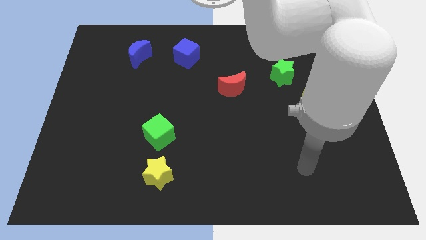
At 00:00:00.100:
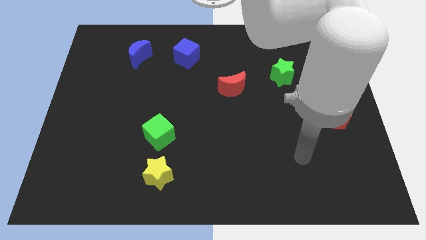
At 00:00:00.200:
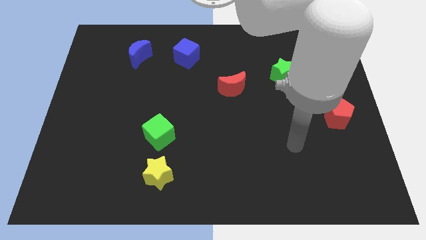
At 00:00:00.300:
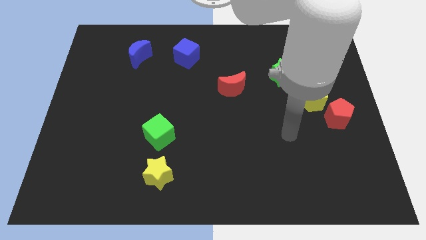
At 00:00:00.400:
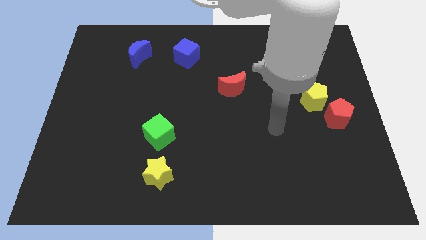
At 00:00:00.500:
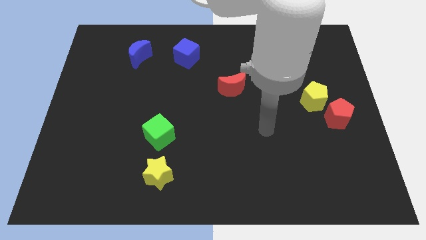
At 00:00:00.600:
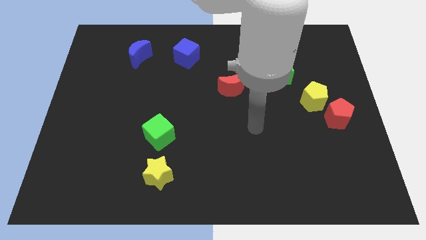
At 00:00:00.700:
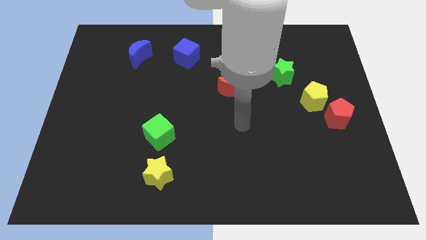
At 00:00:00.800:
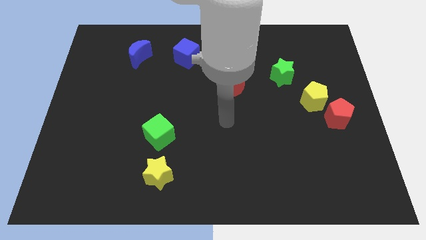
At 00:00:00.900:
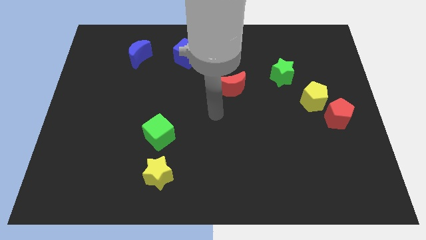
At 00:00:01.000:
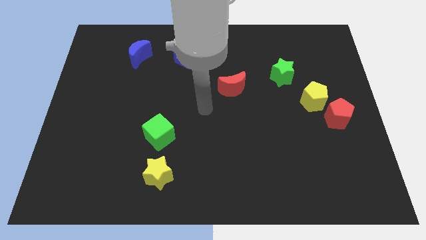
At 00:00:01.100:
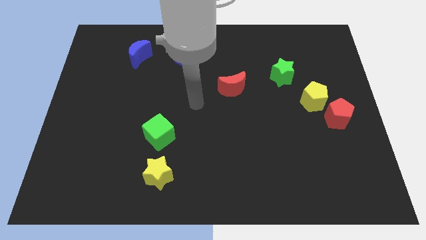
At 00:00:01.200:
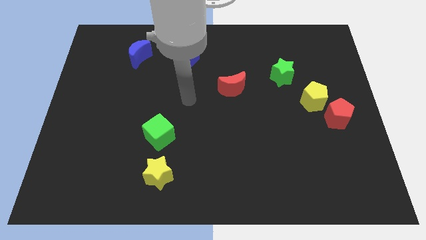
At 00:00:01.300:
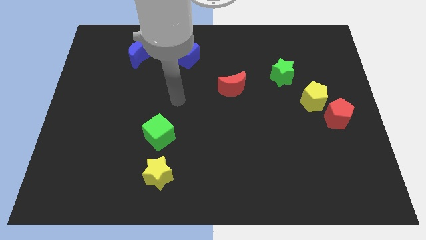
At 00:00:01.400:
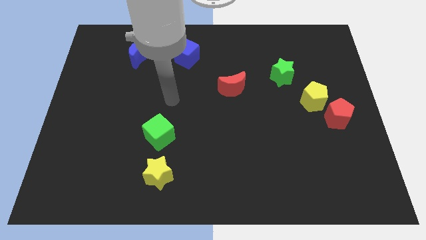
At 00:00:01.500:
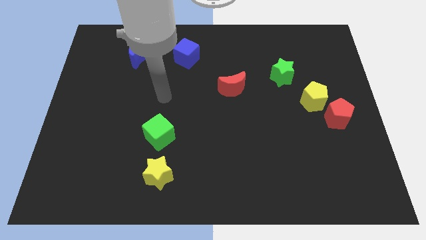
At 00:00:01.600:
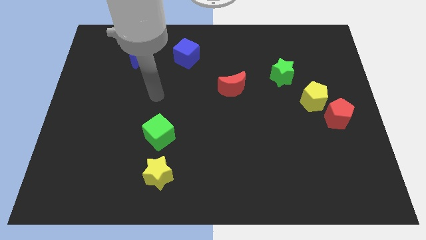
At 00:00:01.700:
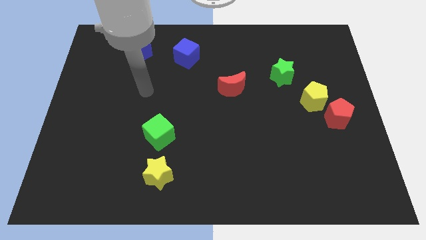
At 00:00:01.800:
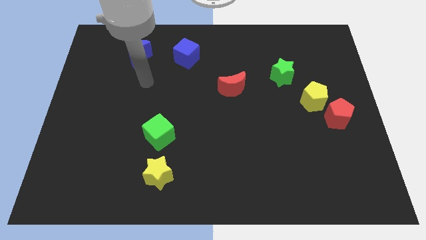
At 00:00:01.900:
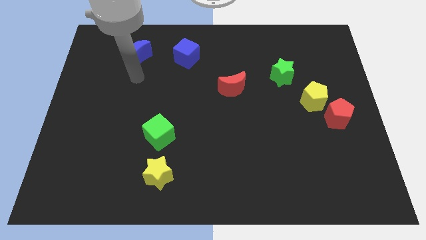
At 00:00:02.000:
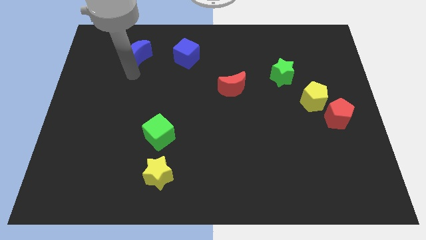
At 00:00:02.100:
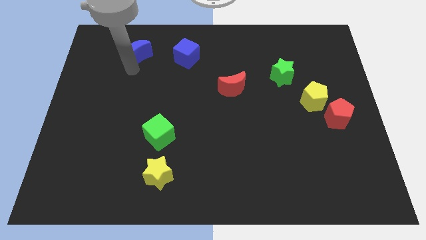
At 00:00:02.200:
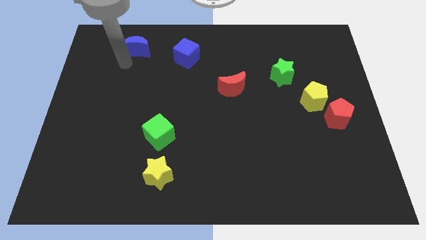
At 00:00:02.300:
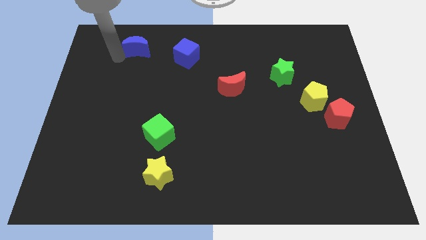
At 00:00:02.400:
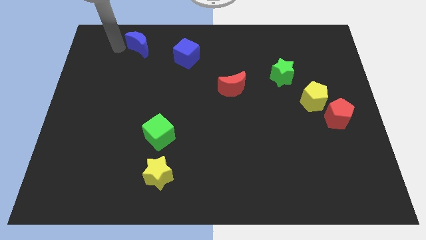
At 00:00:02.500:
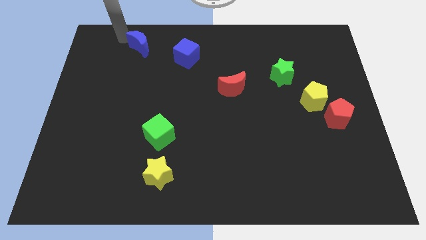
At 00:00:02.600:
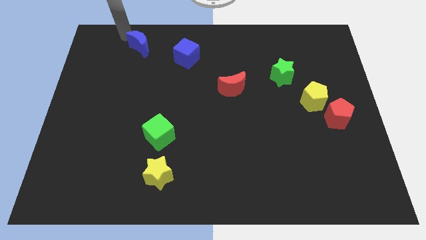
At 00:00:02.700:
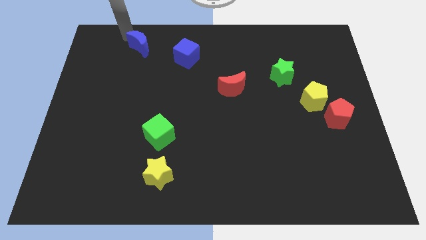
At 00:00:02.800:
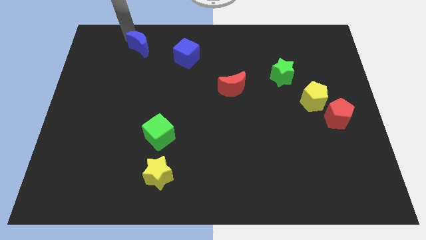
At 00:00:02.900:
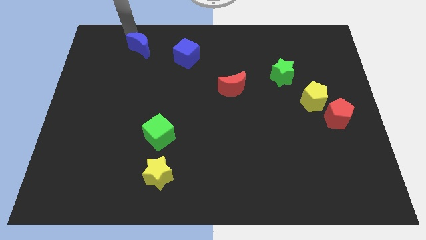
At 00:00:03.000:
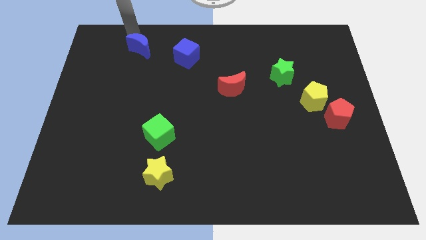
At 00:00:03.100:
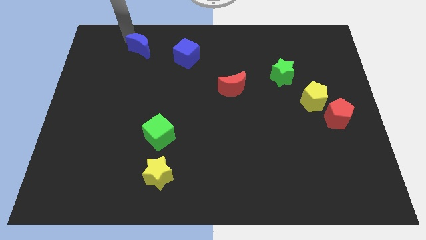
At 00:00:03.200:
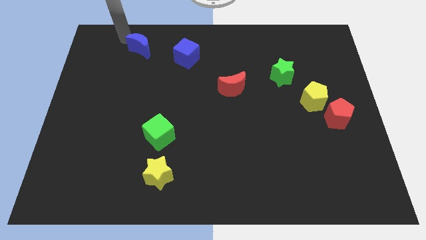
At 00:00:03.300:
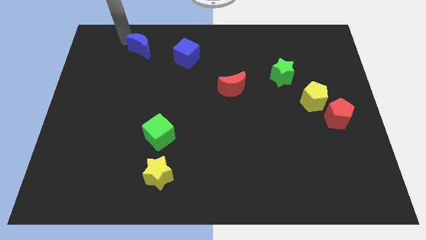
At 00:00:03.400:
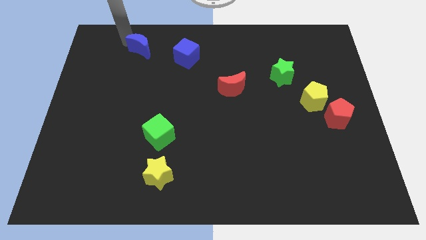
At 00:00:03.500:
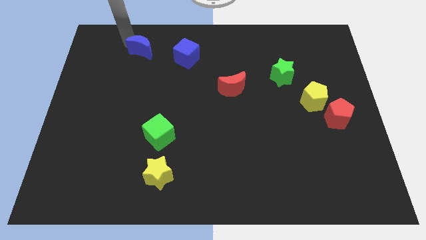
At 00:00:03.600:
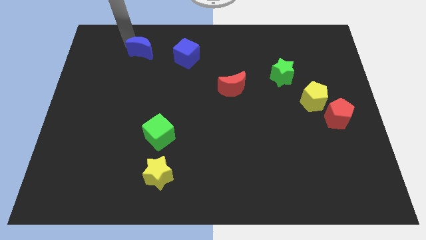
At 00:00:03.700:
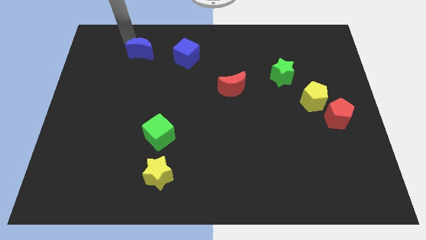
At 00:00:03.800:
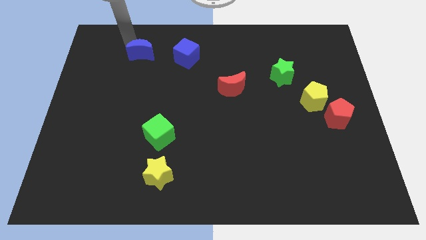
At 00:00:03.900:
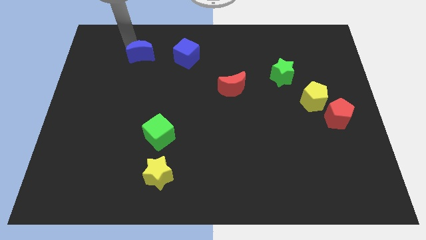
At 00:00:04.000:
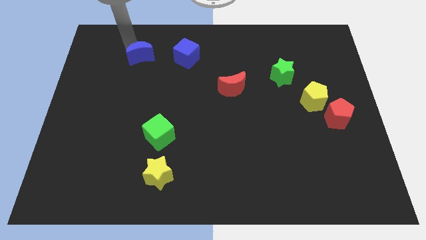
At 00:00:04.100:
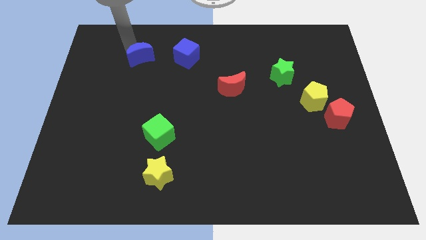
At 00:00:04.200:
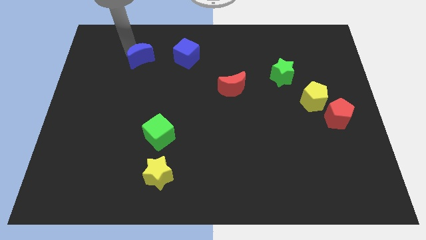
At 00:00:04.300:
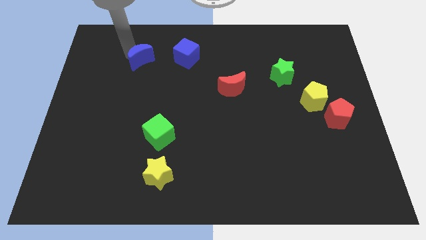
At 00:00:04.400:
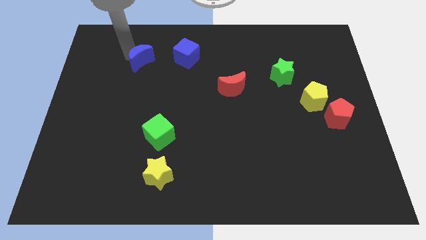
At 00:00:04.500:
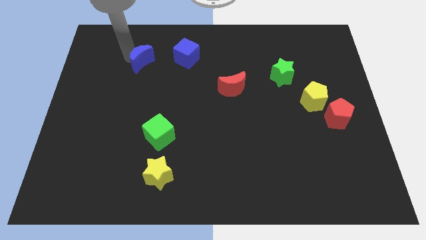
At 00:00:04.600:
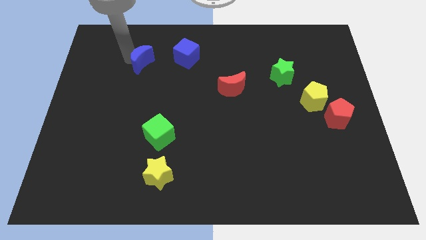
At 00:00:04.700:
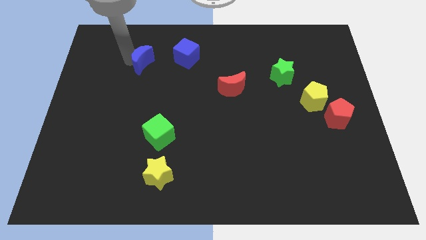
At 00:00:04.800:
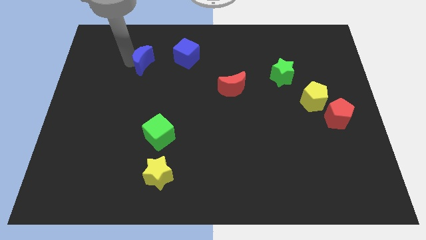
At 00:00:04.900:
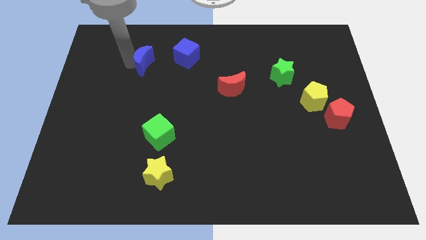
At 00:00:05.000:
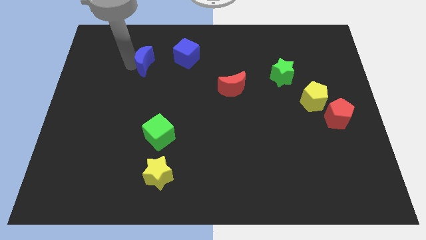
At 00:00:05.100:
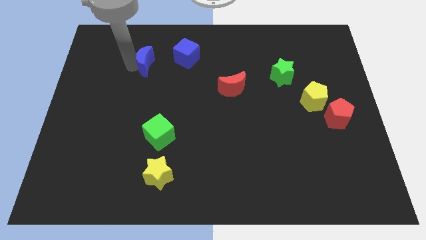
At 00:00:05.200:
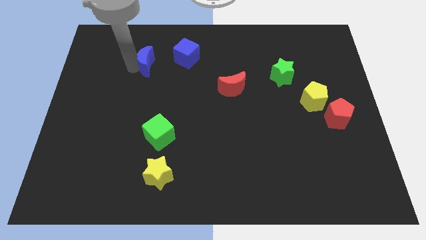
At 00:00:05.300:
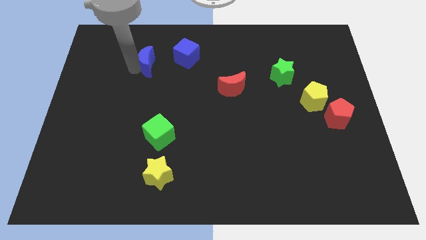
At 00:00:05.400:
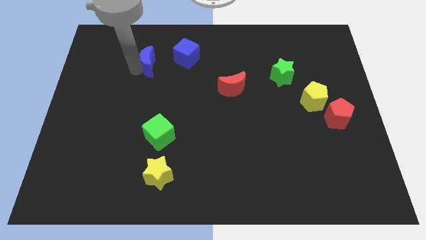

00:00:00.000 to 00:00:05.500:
move the blue moon to the bottom left side of the blue cube

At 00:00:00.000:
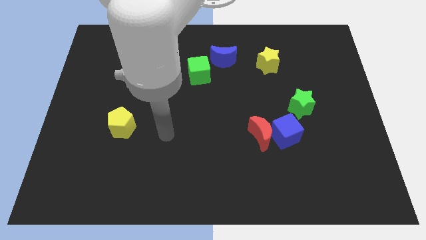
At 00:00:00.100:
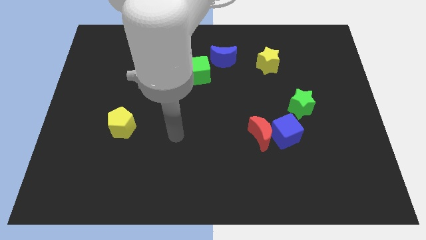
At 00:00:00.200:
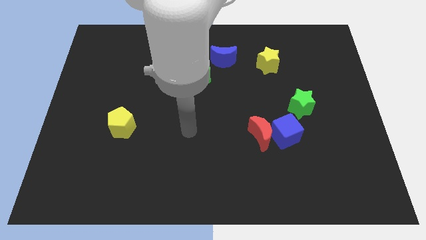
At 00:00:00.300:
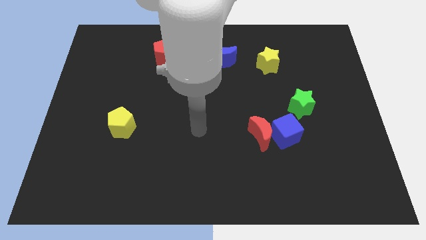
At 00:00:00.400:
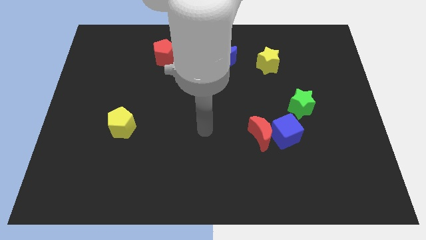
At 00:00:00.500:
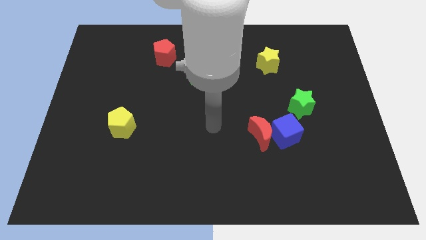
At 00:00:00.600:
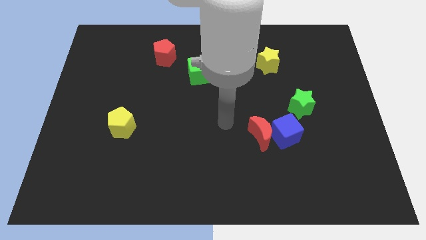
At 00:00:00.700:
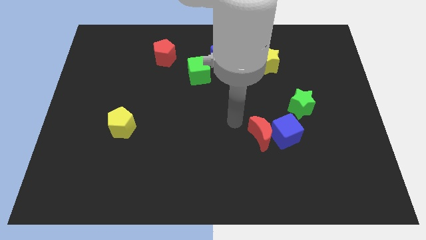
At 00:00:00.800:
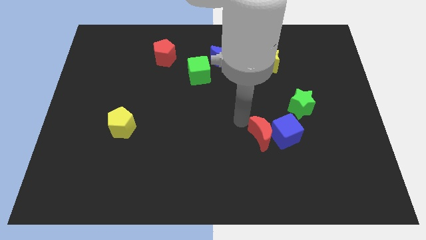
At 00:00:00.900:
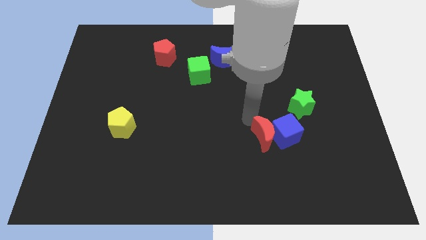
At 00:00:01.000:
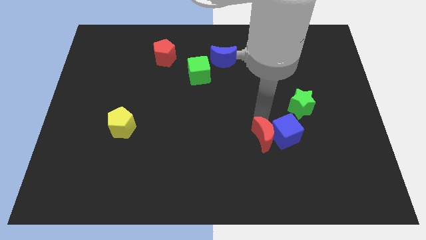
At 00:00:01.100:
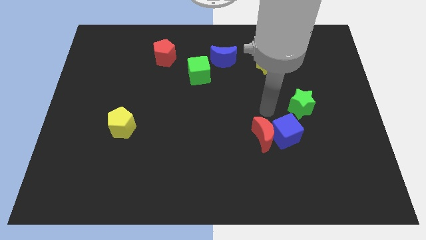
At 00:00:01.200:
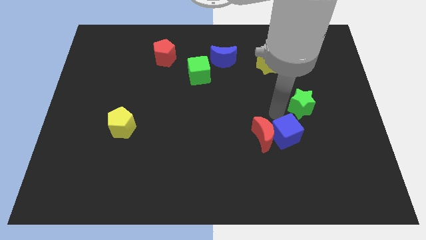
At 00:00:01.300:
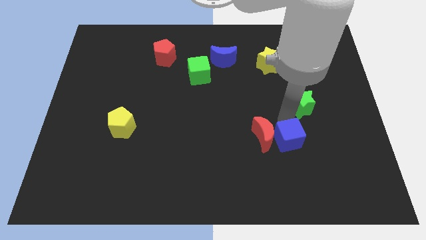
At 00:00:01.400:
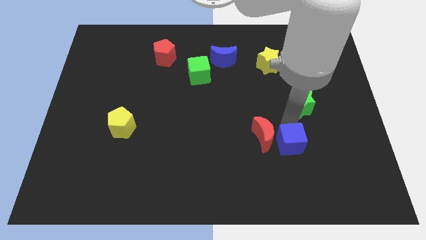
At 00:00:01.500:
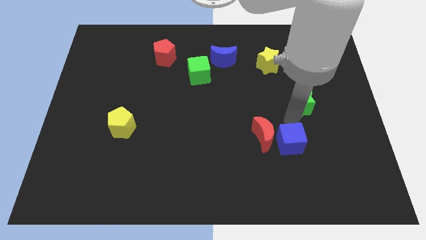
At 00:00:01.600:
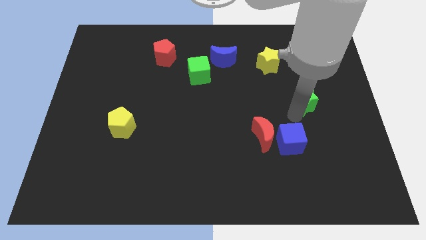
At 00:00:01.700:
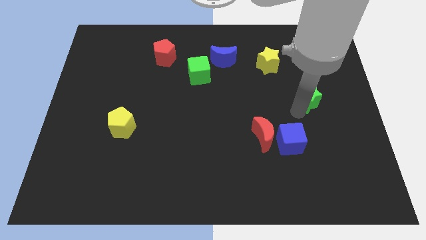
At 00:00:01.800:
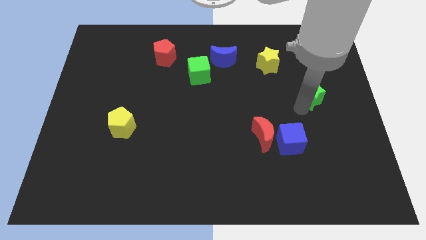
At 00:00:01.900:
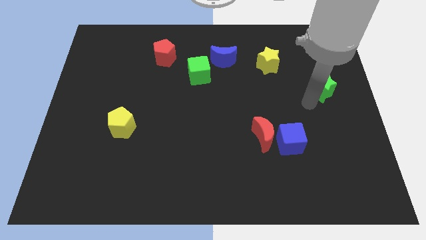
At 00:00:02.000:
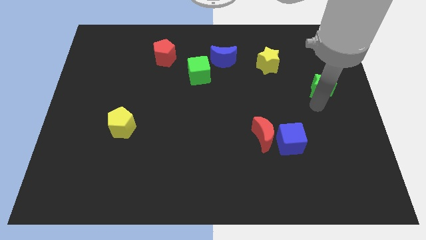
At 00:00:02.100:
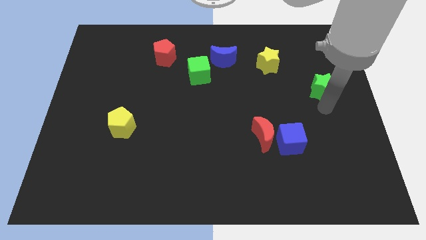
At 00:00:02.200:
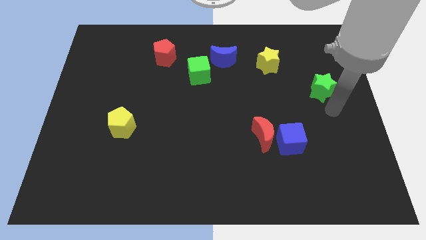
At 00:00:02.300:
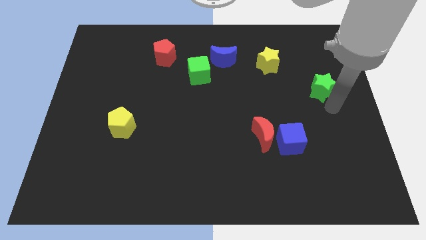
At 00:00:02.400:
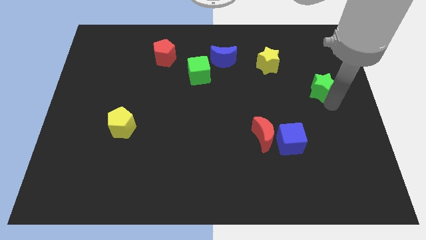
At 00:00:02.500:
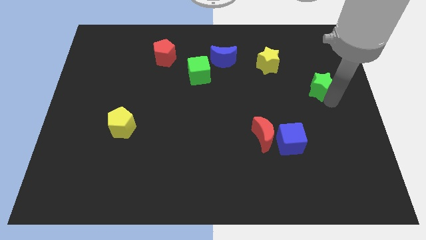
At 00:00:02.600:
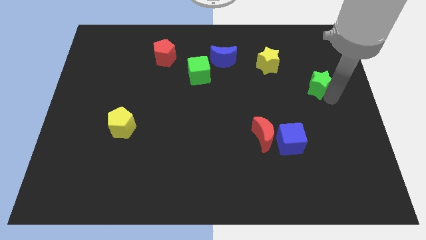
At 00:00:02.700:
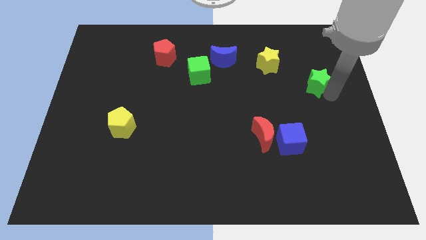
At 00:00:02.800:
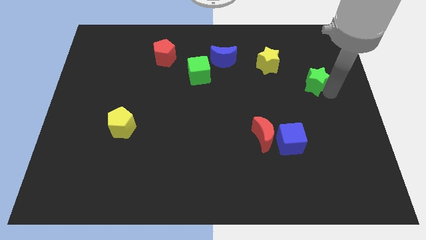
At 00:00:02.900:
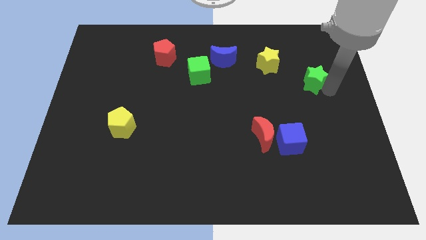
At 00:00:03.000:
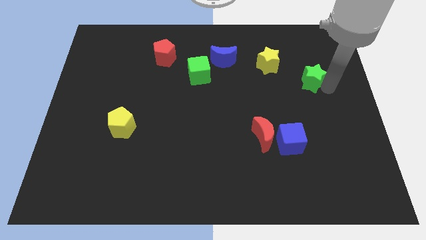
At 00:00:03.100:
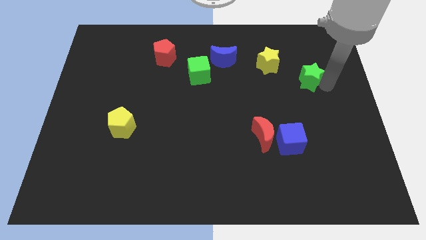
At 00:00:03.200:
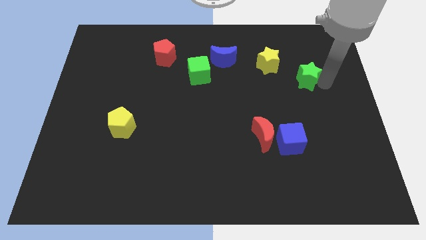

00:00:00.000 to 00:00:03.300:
move the green star right of the yellow star
